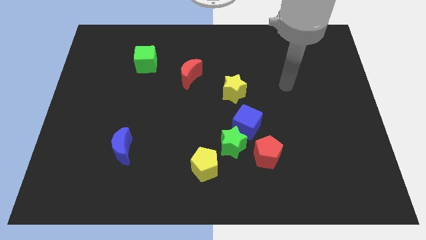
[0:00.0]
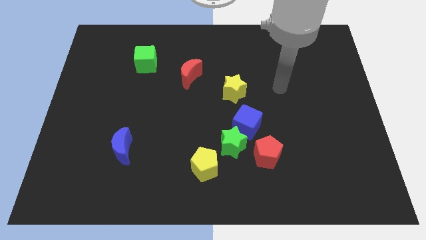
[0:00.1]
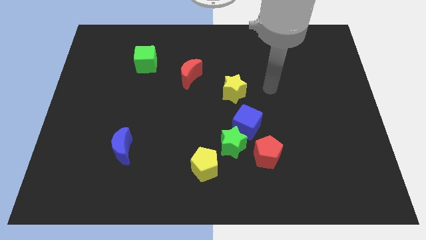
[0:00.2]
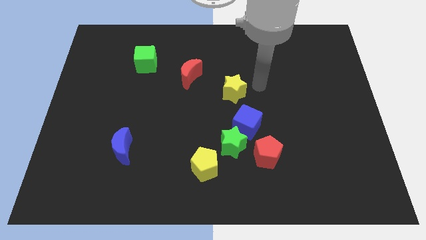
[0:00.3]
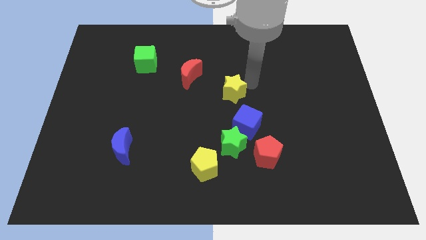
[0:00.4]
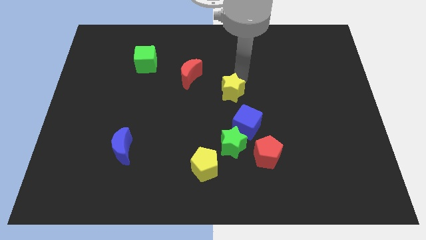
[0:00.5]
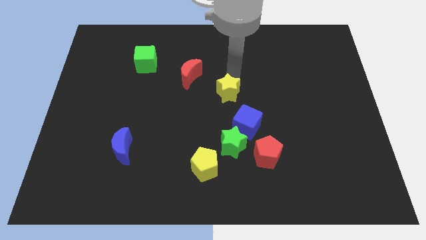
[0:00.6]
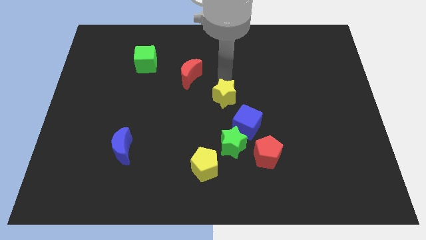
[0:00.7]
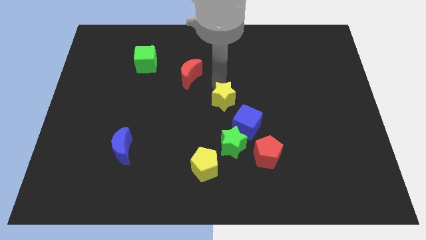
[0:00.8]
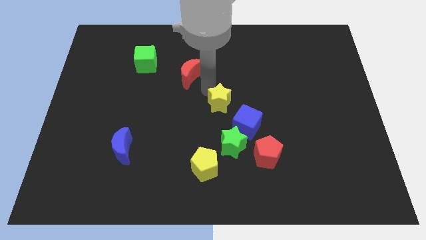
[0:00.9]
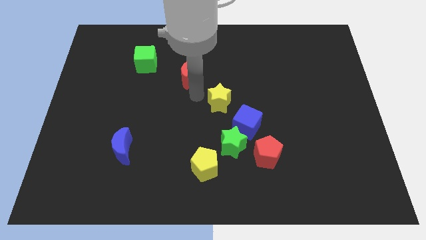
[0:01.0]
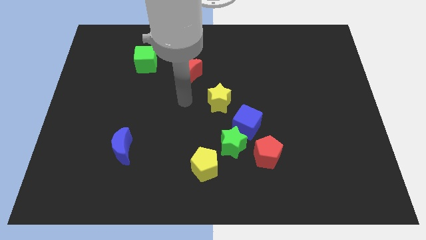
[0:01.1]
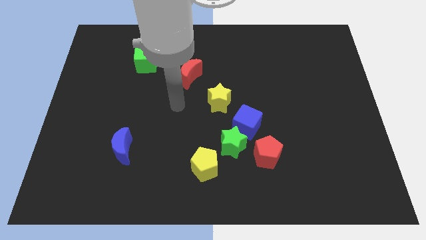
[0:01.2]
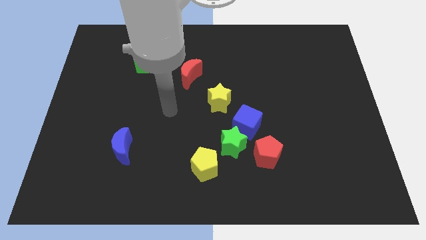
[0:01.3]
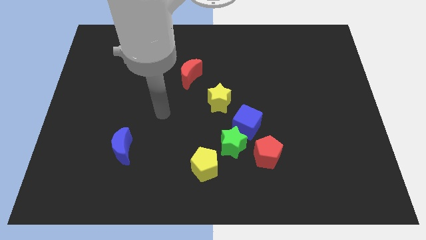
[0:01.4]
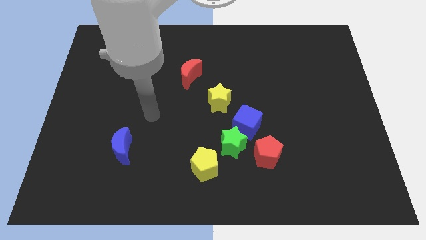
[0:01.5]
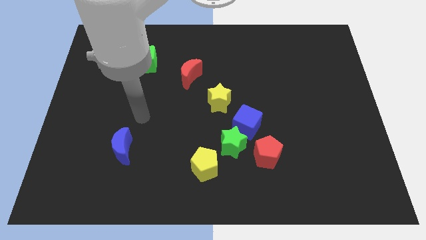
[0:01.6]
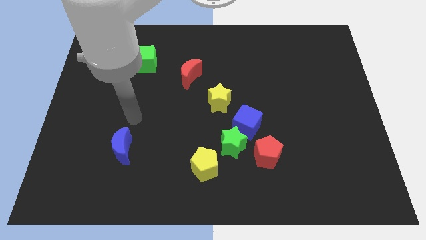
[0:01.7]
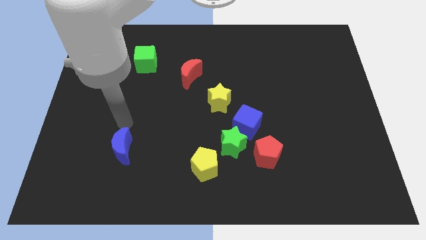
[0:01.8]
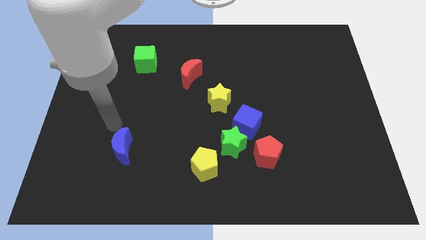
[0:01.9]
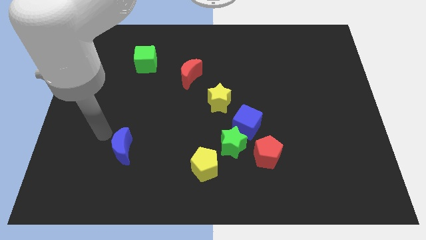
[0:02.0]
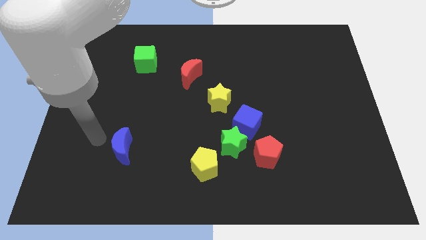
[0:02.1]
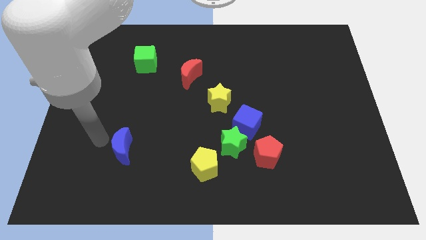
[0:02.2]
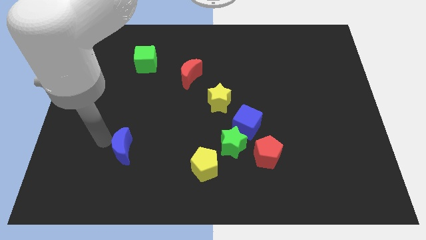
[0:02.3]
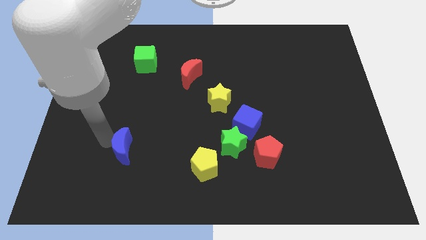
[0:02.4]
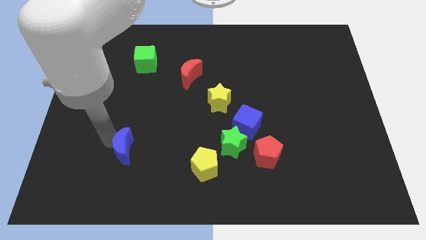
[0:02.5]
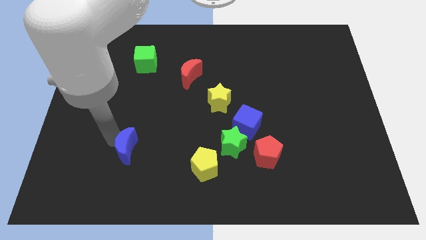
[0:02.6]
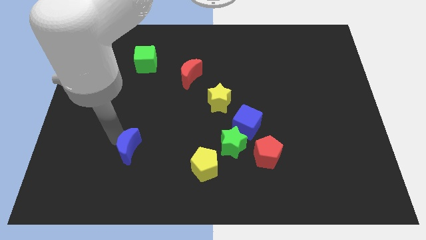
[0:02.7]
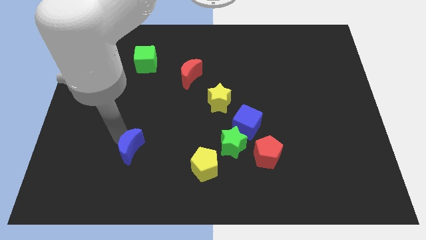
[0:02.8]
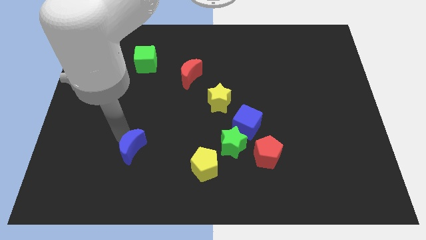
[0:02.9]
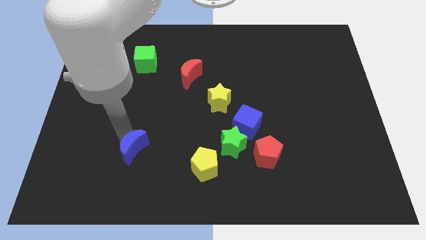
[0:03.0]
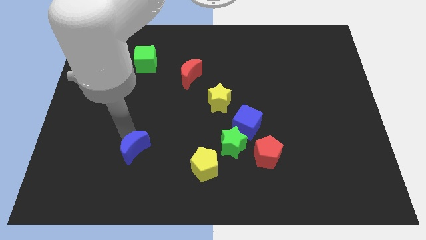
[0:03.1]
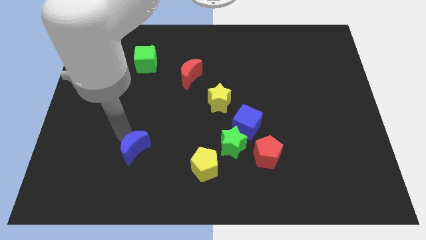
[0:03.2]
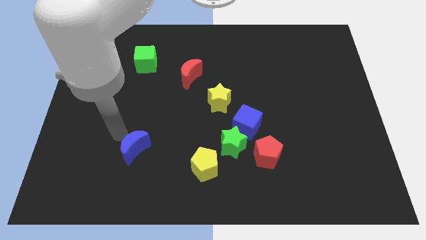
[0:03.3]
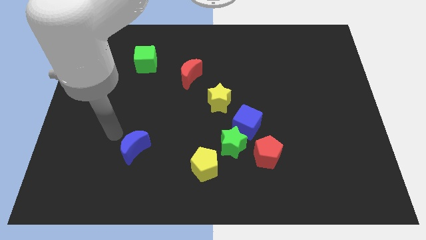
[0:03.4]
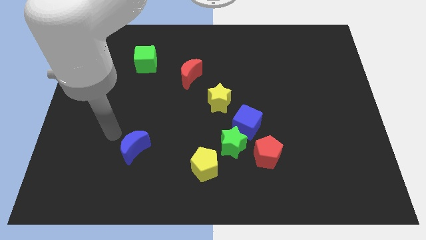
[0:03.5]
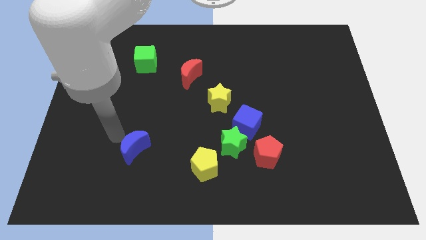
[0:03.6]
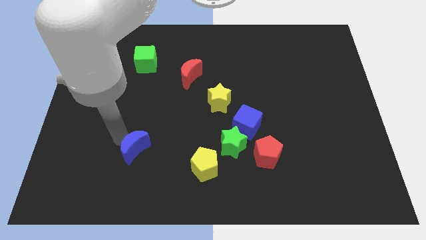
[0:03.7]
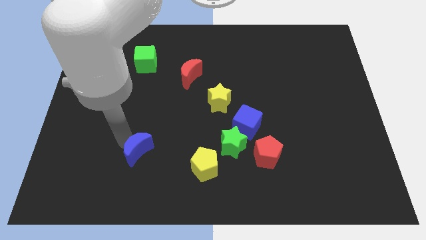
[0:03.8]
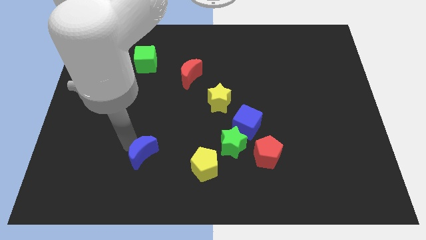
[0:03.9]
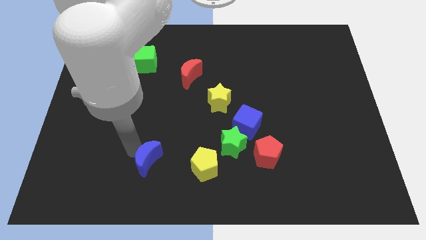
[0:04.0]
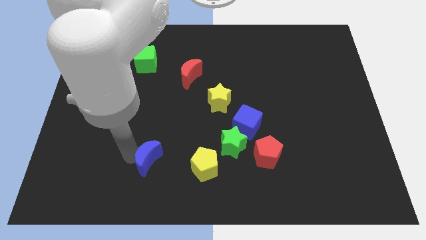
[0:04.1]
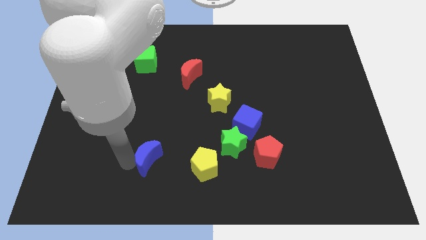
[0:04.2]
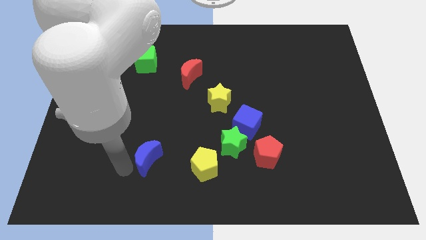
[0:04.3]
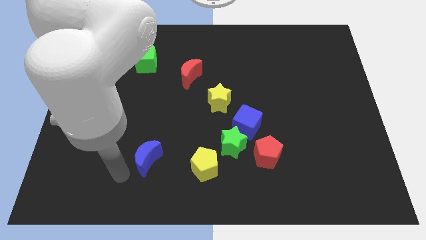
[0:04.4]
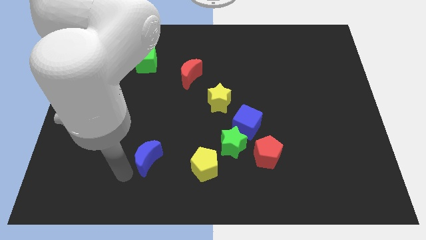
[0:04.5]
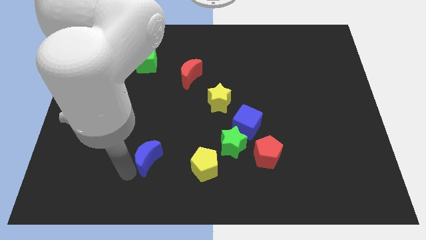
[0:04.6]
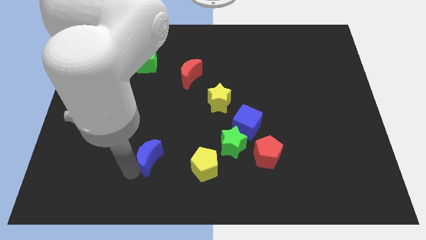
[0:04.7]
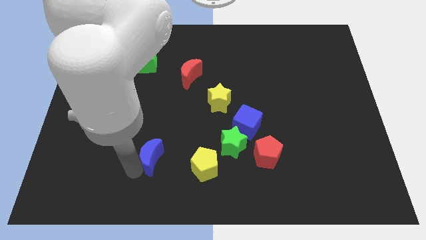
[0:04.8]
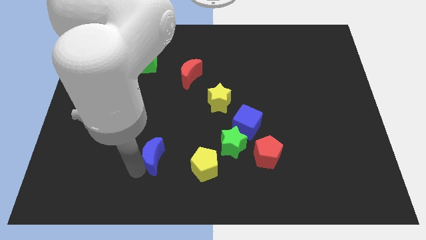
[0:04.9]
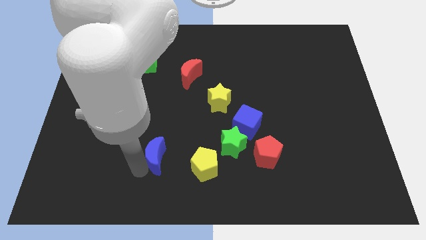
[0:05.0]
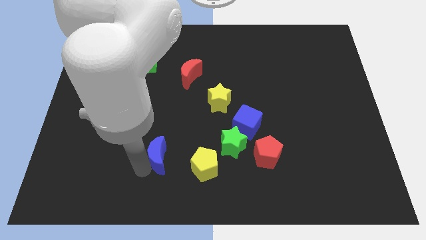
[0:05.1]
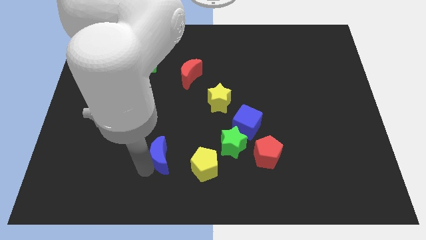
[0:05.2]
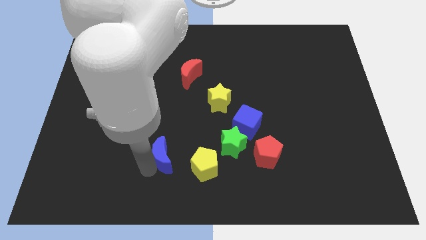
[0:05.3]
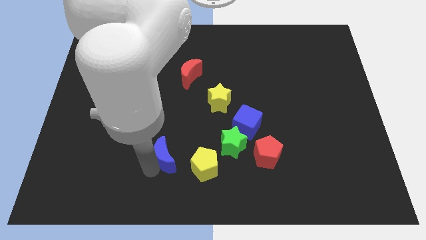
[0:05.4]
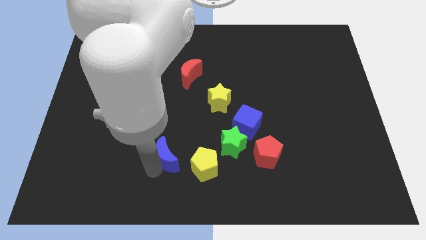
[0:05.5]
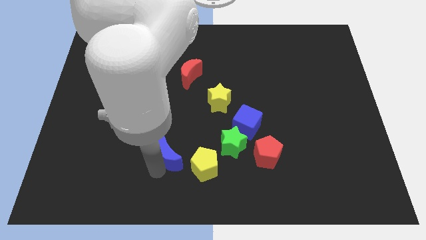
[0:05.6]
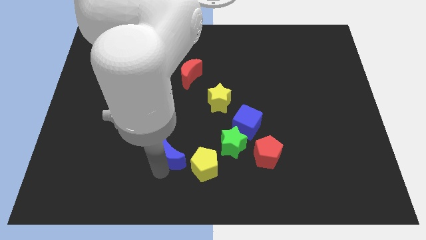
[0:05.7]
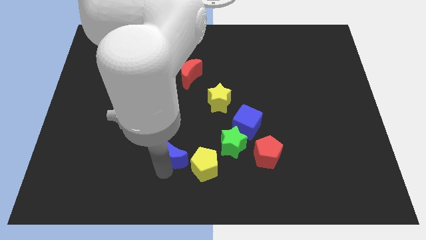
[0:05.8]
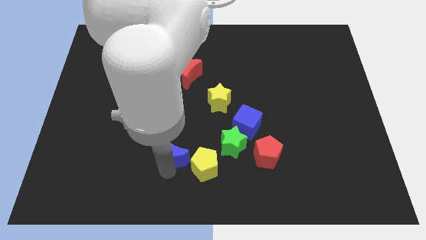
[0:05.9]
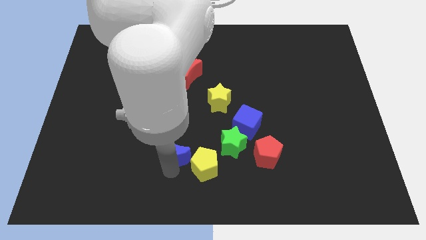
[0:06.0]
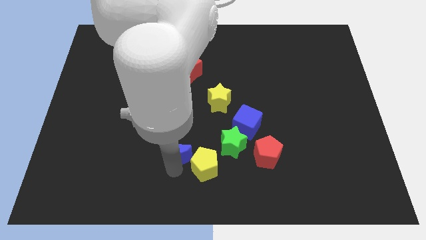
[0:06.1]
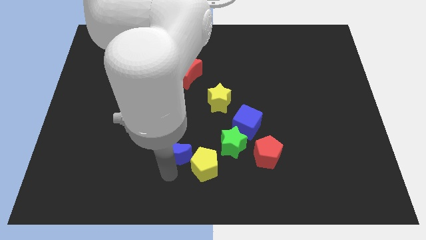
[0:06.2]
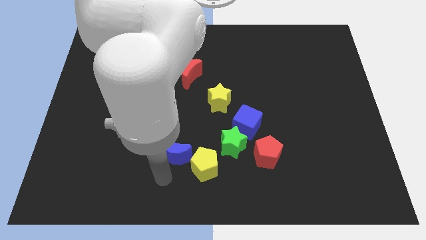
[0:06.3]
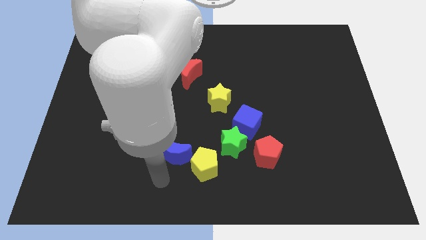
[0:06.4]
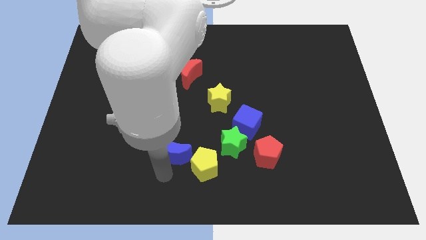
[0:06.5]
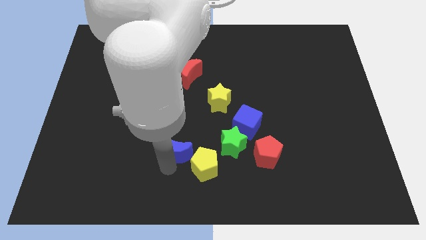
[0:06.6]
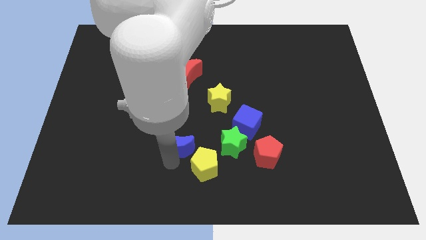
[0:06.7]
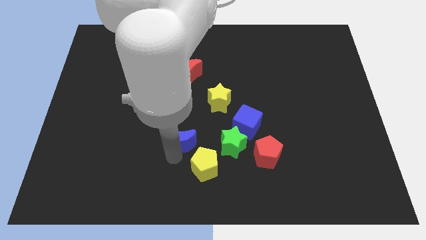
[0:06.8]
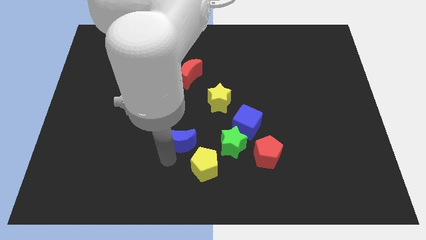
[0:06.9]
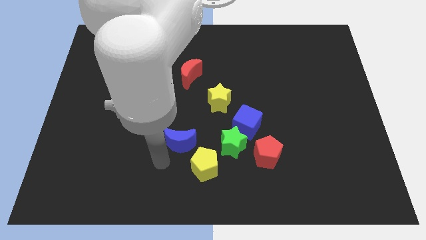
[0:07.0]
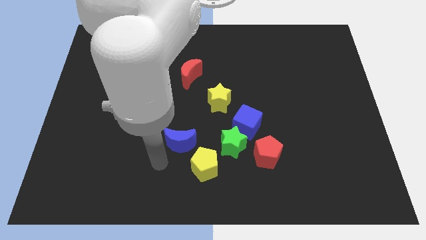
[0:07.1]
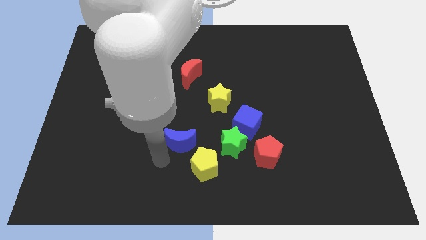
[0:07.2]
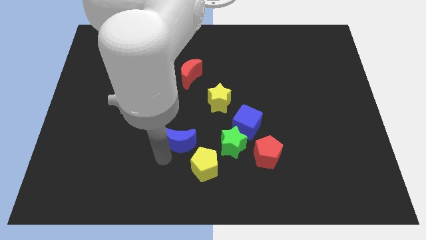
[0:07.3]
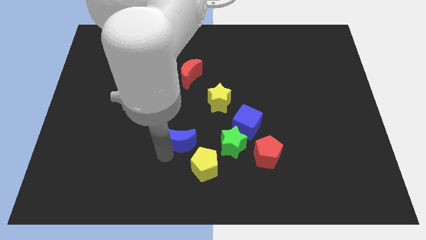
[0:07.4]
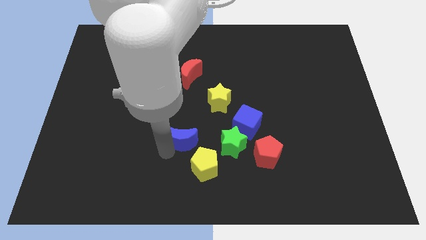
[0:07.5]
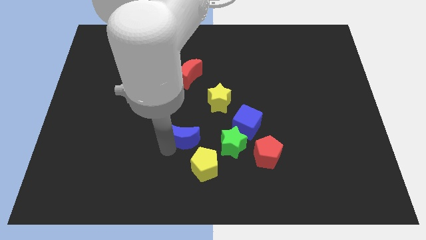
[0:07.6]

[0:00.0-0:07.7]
push the blue moon just left of the blue cube
